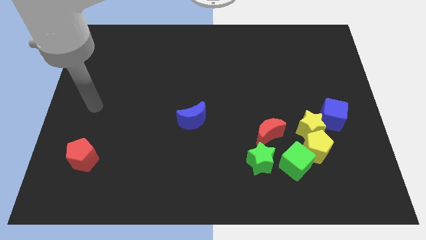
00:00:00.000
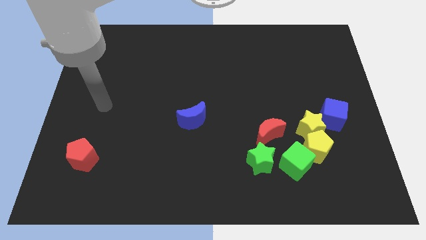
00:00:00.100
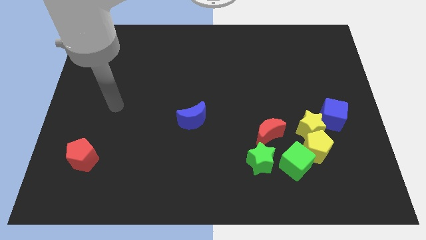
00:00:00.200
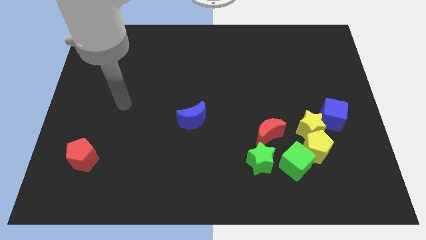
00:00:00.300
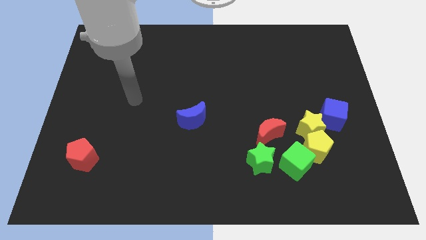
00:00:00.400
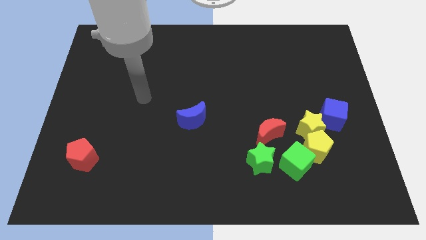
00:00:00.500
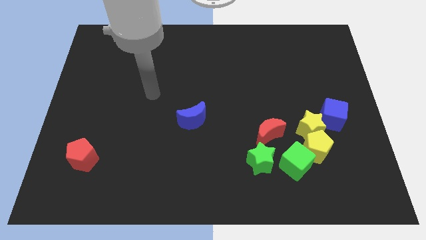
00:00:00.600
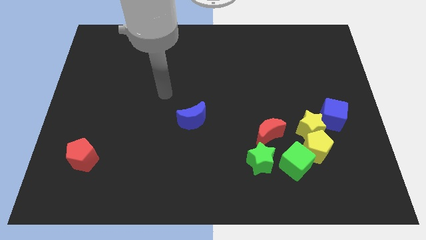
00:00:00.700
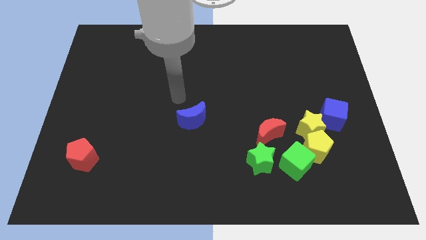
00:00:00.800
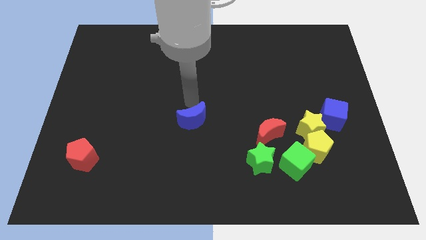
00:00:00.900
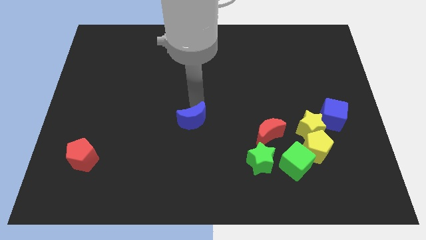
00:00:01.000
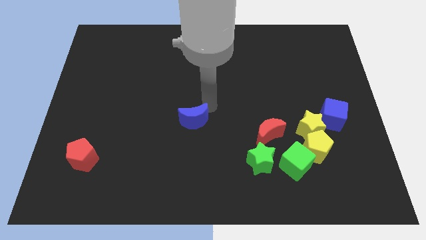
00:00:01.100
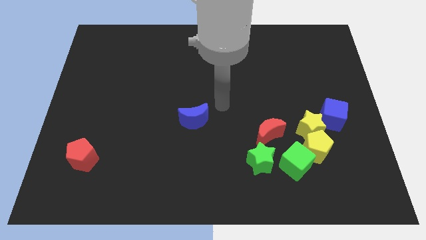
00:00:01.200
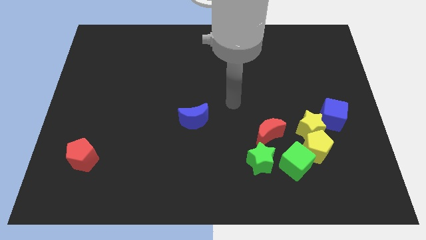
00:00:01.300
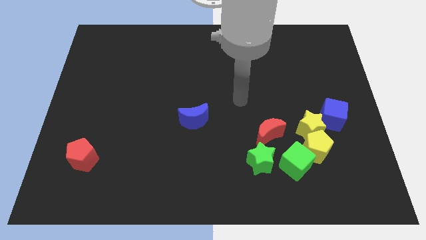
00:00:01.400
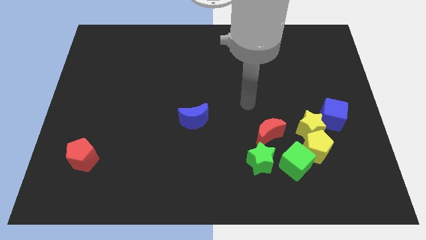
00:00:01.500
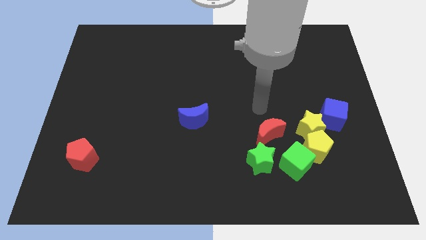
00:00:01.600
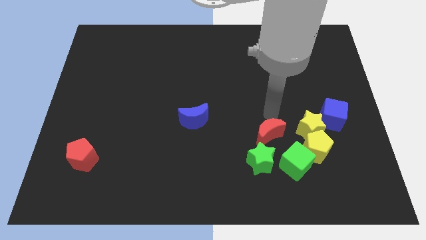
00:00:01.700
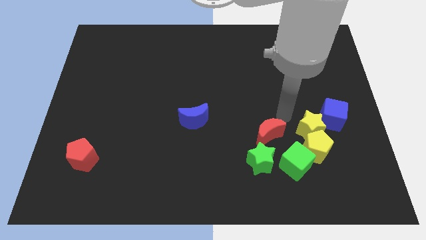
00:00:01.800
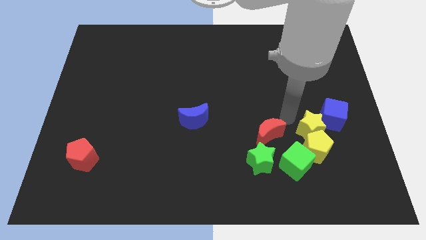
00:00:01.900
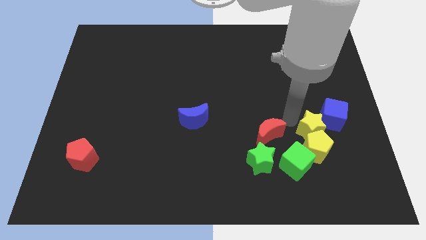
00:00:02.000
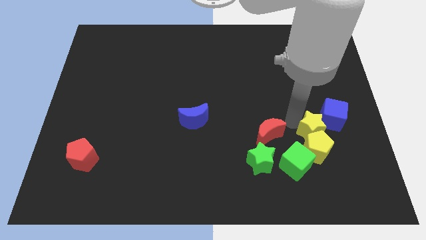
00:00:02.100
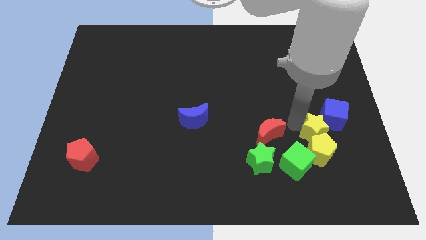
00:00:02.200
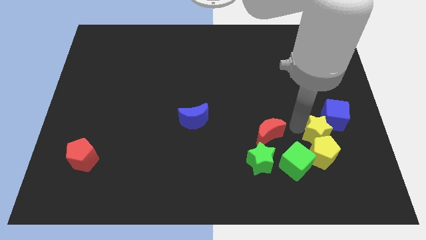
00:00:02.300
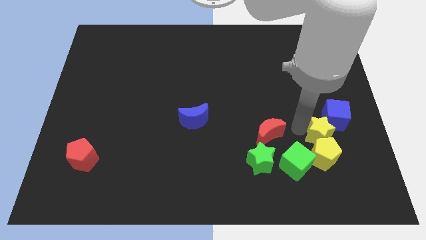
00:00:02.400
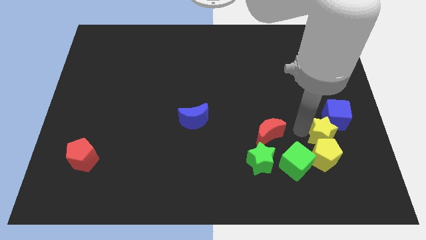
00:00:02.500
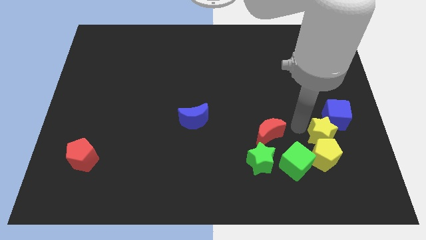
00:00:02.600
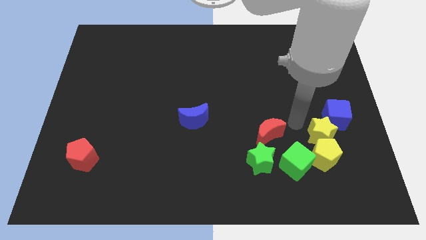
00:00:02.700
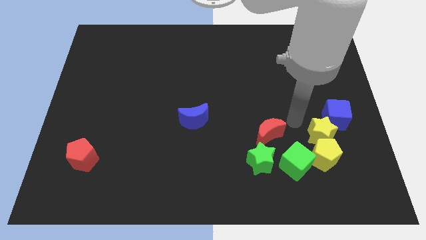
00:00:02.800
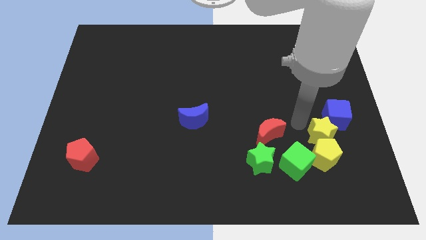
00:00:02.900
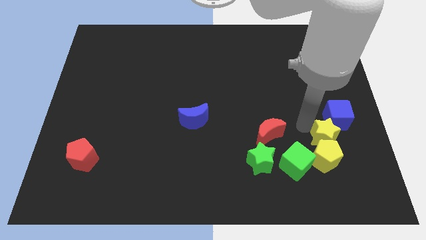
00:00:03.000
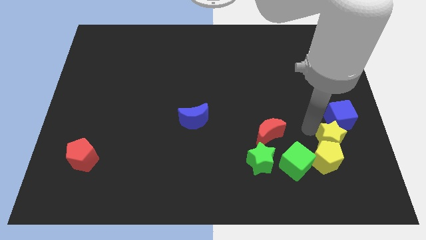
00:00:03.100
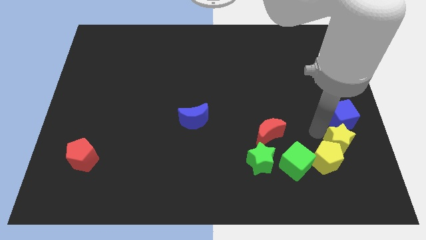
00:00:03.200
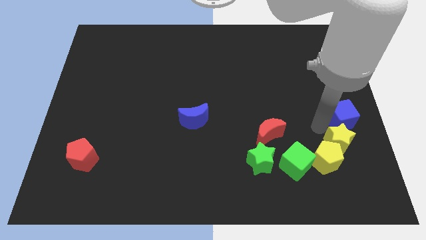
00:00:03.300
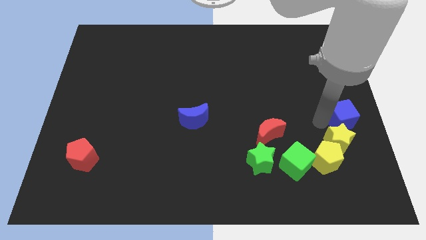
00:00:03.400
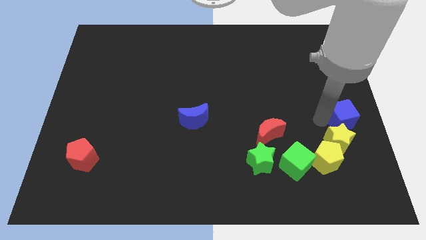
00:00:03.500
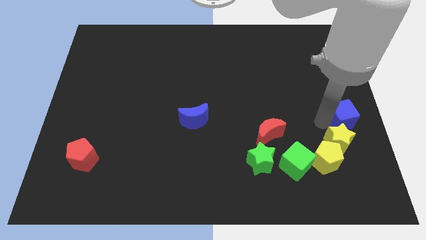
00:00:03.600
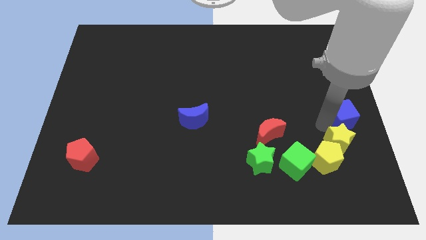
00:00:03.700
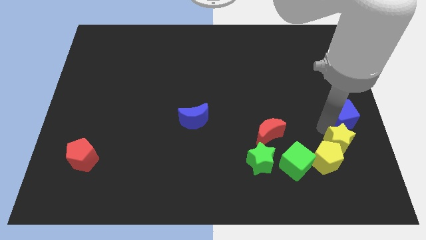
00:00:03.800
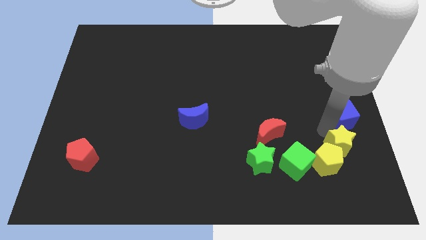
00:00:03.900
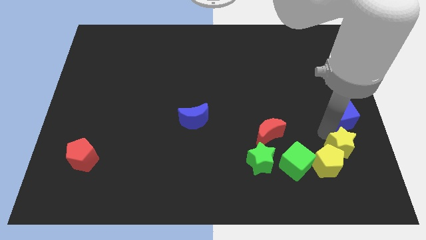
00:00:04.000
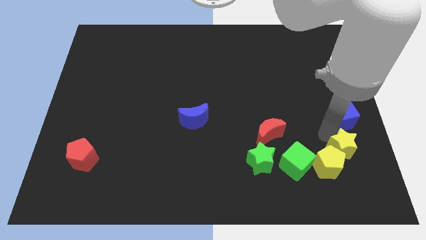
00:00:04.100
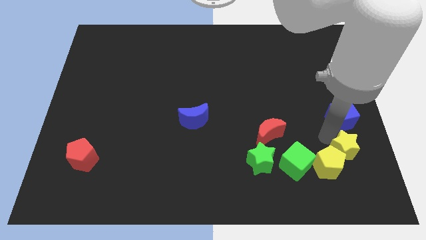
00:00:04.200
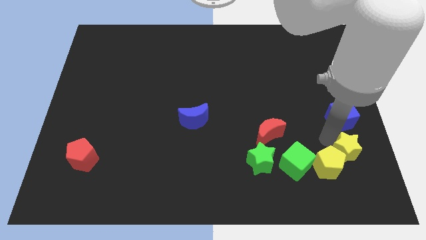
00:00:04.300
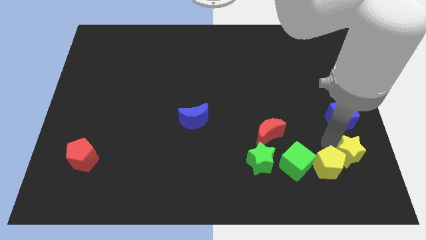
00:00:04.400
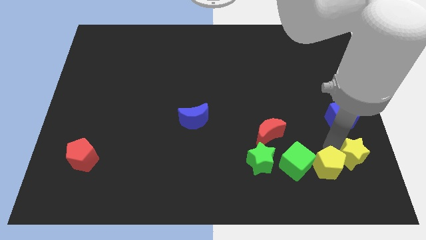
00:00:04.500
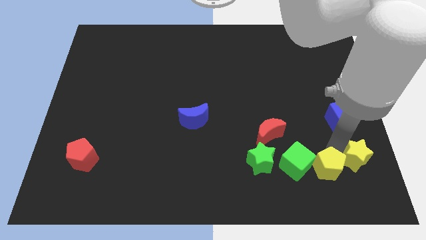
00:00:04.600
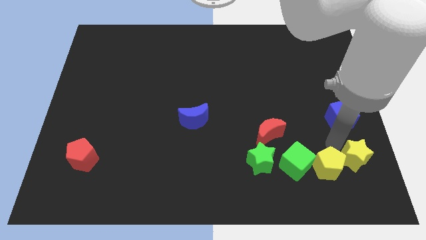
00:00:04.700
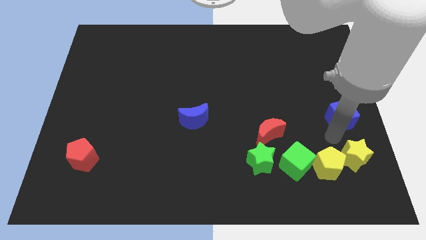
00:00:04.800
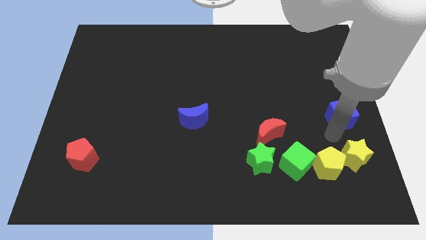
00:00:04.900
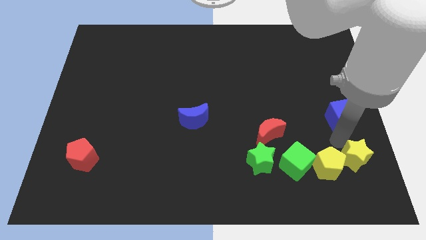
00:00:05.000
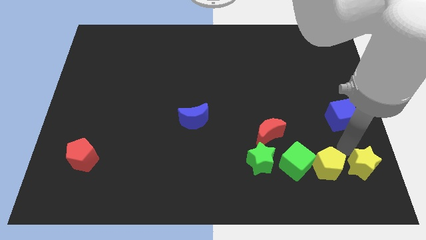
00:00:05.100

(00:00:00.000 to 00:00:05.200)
slide the yellow star to the bottom right corner

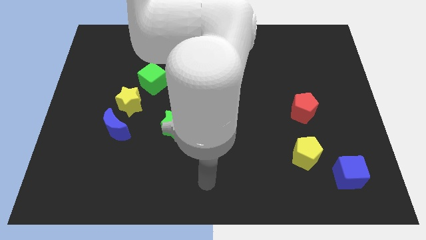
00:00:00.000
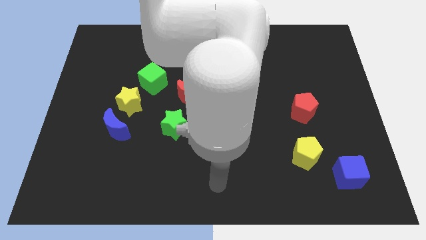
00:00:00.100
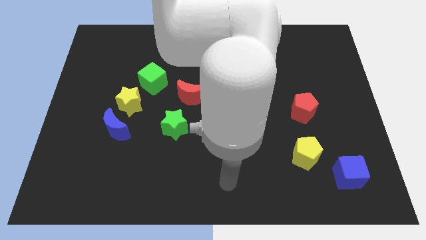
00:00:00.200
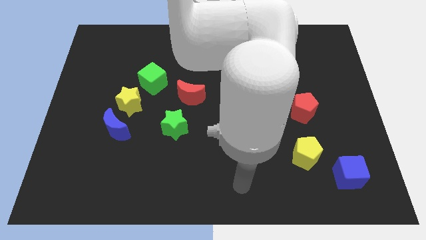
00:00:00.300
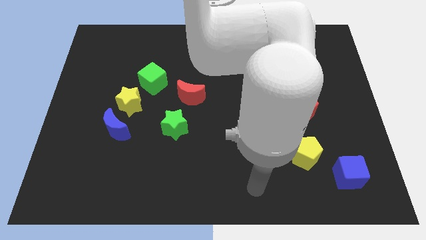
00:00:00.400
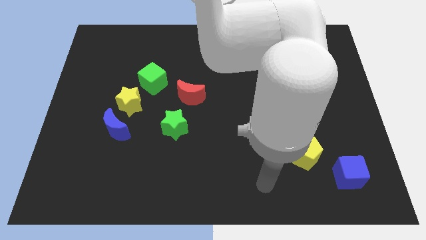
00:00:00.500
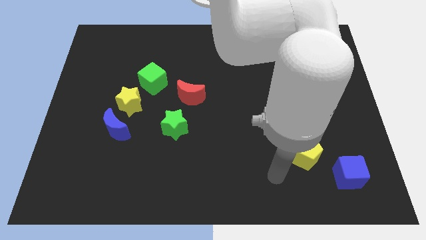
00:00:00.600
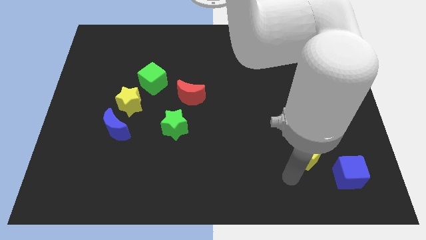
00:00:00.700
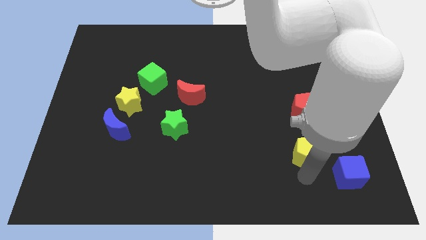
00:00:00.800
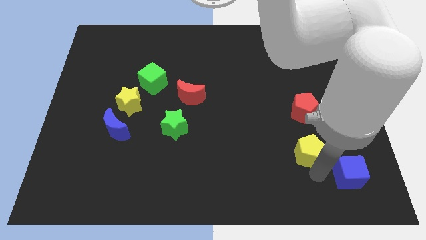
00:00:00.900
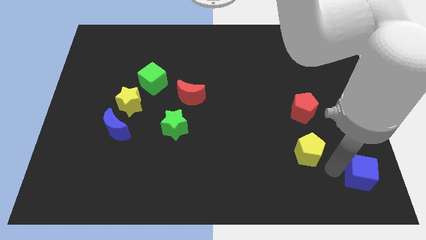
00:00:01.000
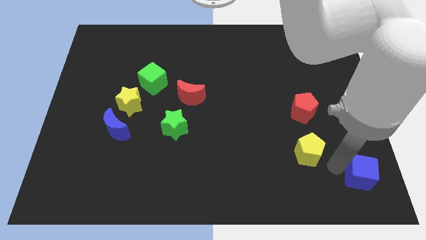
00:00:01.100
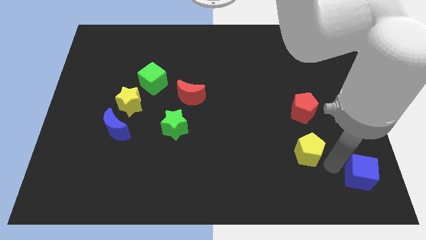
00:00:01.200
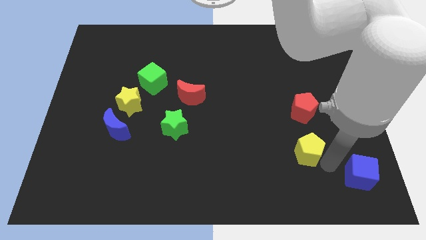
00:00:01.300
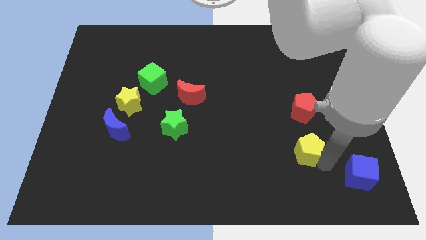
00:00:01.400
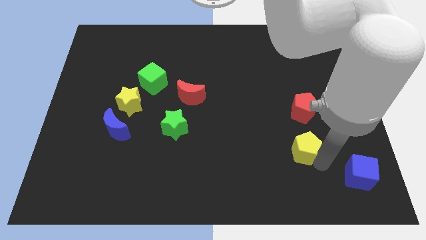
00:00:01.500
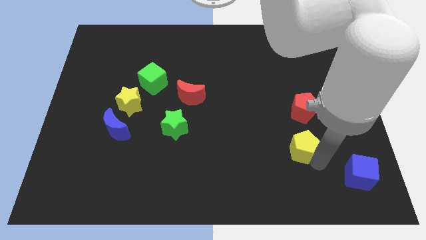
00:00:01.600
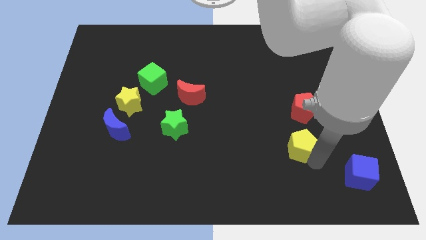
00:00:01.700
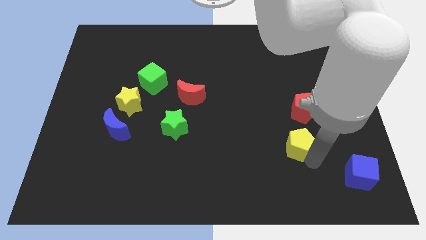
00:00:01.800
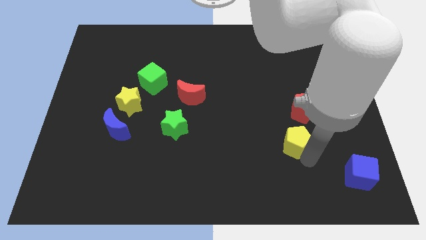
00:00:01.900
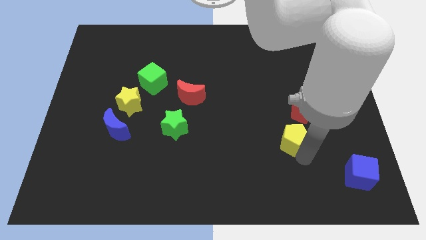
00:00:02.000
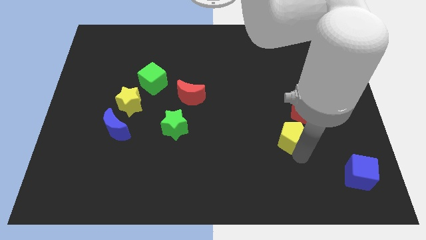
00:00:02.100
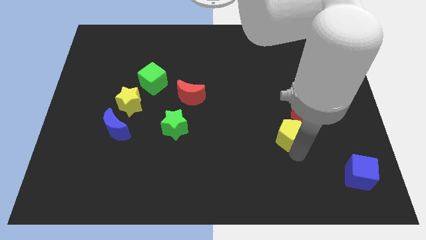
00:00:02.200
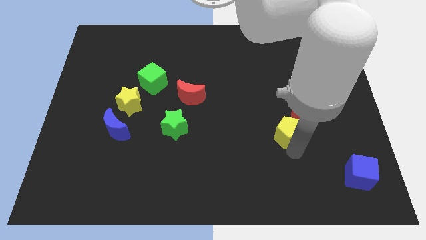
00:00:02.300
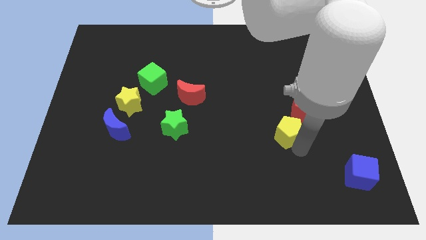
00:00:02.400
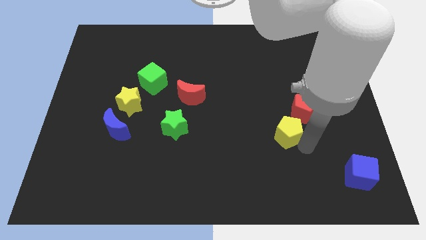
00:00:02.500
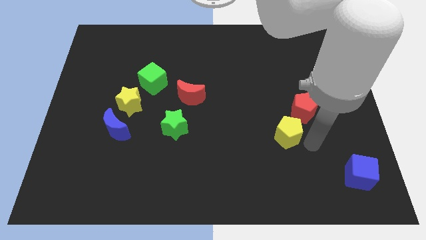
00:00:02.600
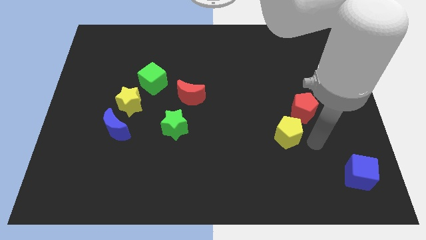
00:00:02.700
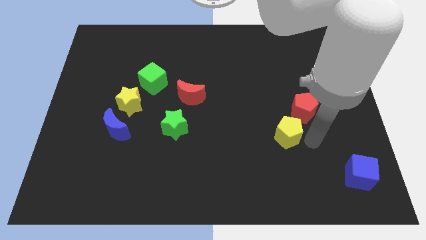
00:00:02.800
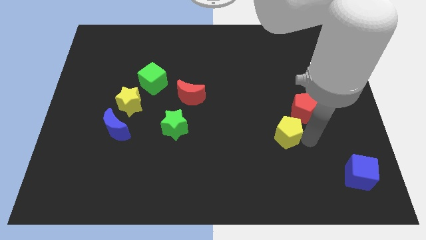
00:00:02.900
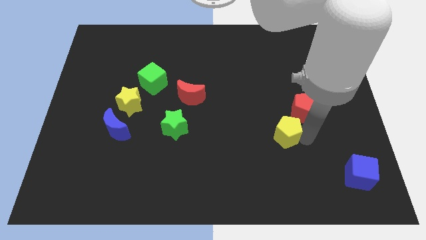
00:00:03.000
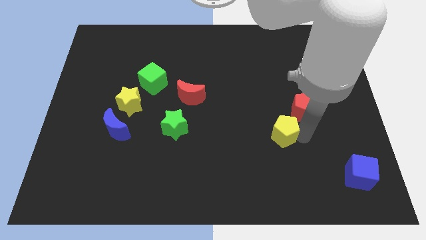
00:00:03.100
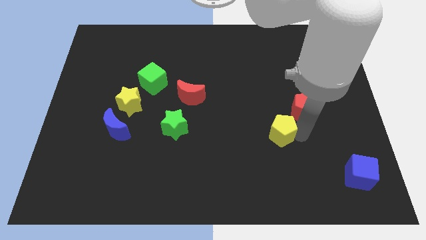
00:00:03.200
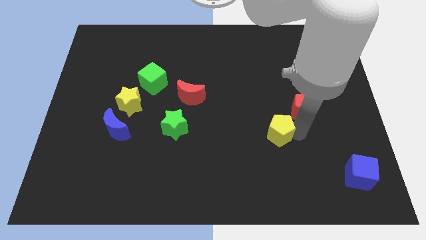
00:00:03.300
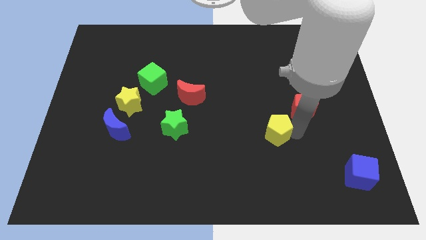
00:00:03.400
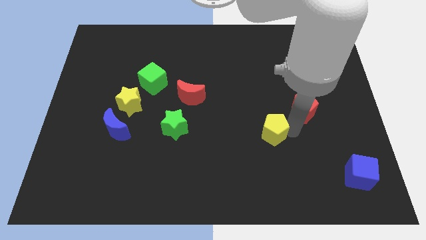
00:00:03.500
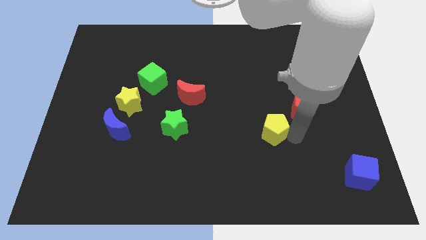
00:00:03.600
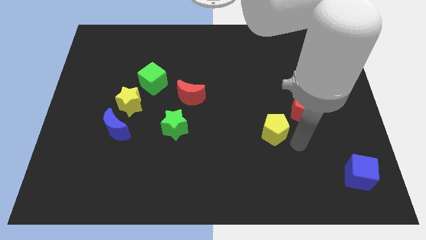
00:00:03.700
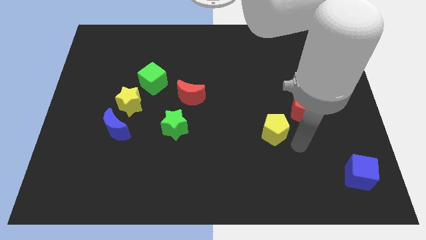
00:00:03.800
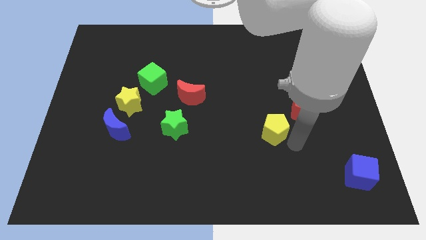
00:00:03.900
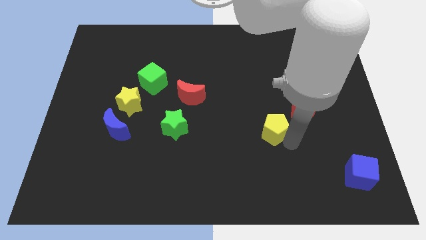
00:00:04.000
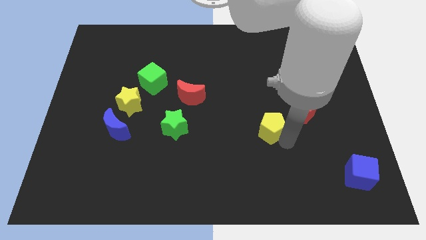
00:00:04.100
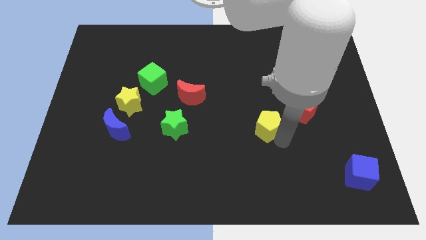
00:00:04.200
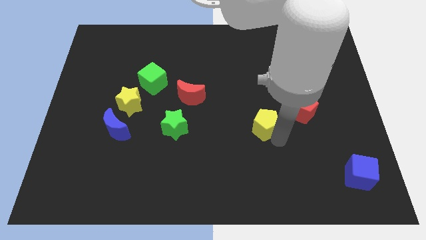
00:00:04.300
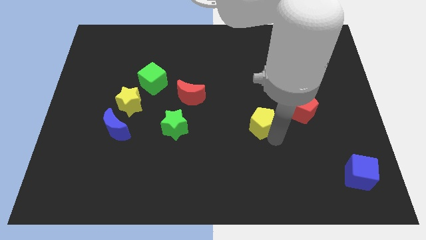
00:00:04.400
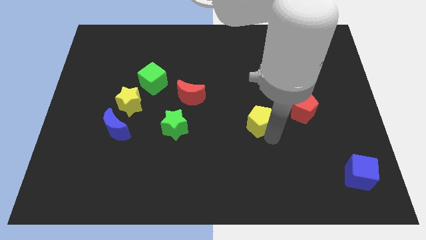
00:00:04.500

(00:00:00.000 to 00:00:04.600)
slide the yellow pentagon to the middle
